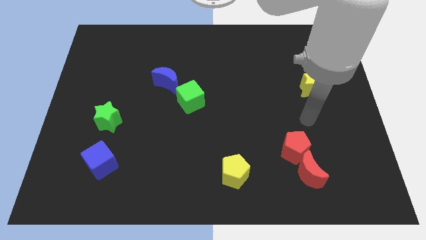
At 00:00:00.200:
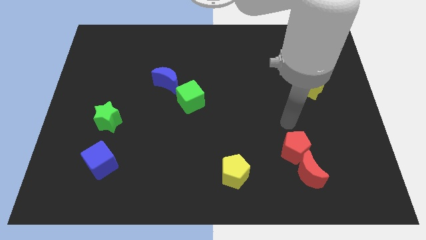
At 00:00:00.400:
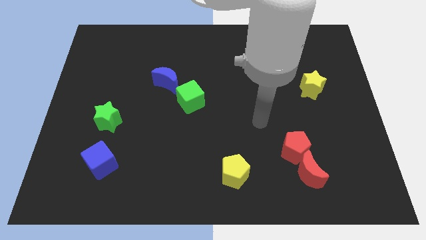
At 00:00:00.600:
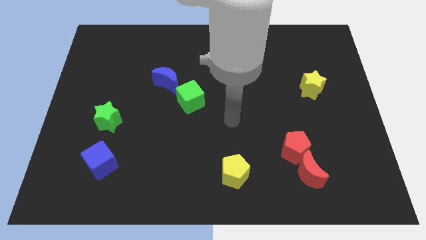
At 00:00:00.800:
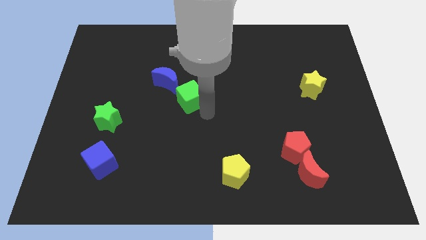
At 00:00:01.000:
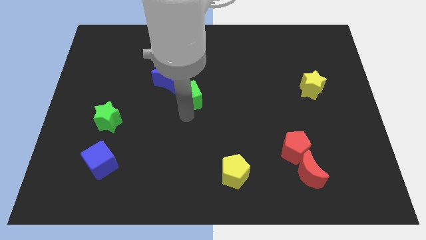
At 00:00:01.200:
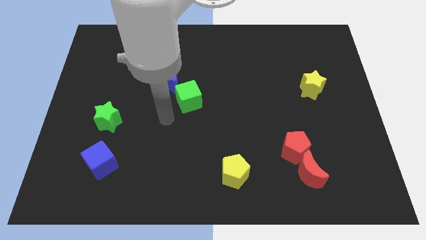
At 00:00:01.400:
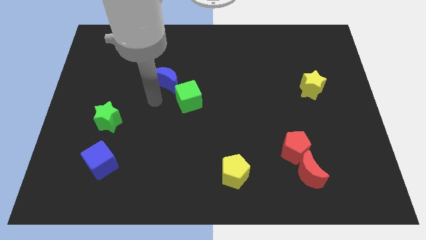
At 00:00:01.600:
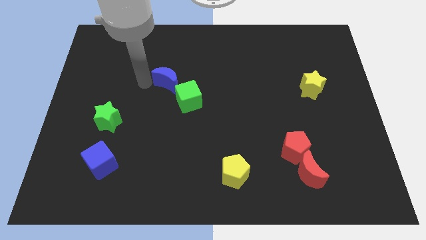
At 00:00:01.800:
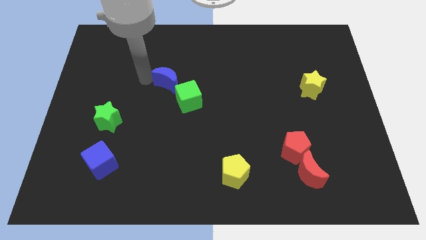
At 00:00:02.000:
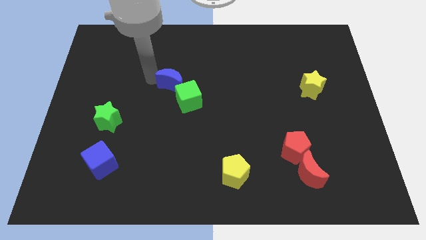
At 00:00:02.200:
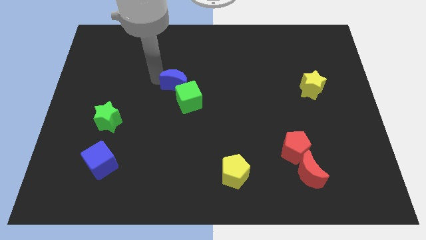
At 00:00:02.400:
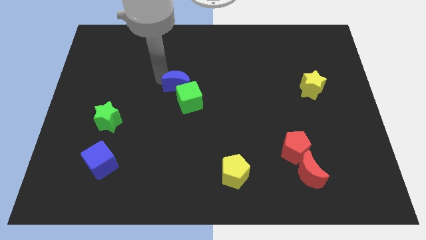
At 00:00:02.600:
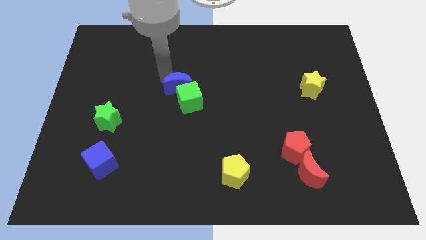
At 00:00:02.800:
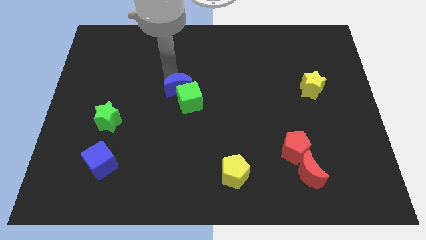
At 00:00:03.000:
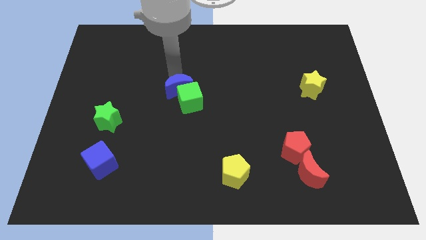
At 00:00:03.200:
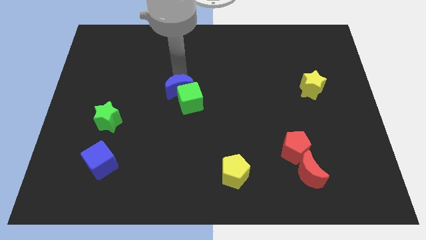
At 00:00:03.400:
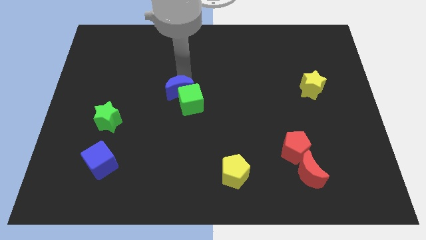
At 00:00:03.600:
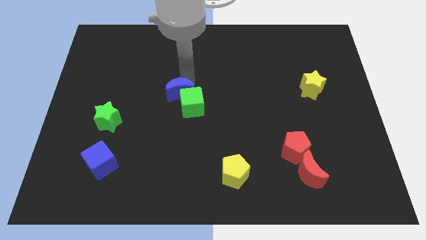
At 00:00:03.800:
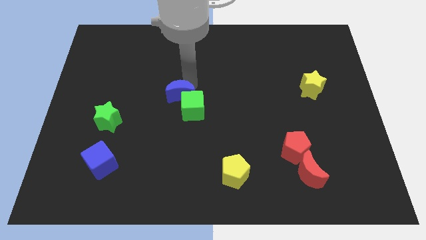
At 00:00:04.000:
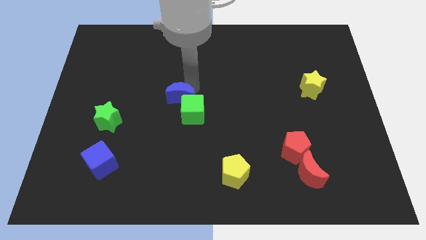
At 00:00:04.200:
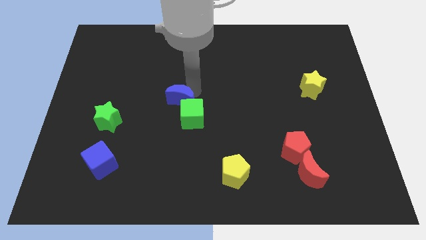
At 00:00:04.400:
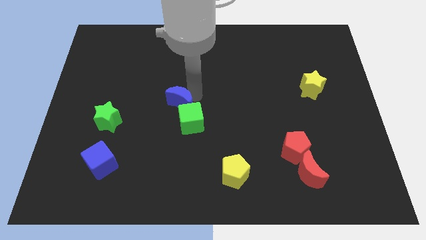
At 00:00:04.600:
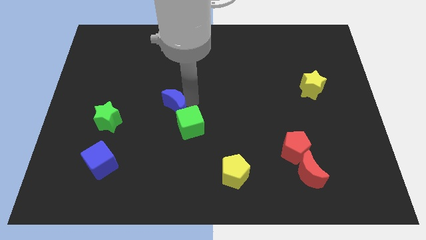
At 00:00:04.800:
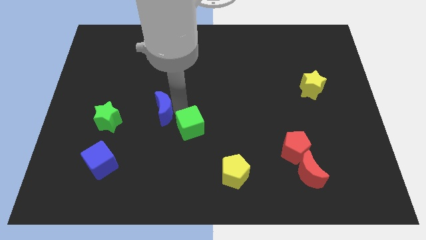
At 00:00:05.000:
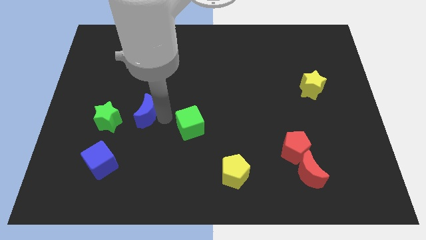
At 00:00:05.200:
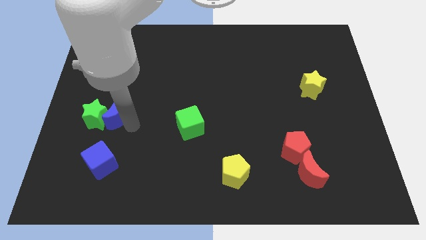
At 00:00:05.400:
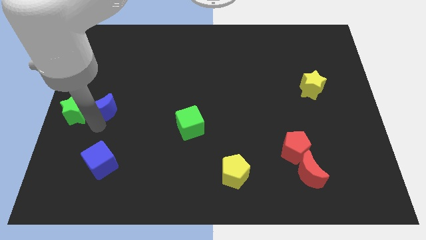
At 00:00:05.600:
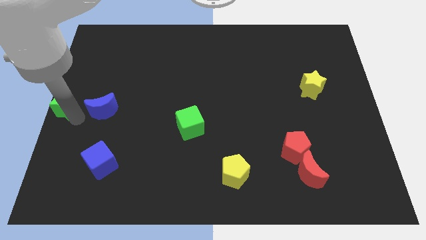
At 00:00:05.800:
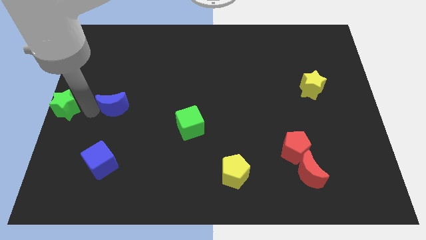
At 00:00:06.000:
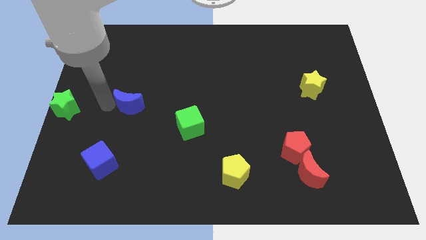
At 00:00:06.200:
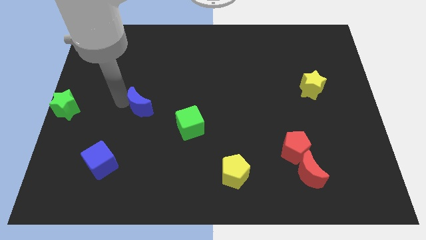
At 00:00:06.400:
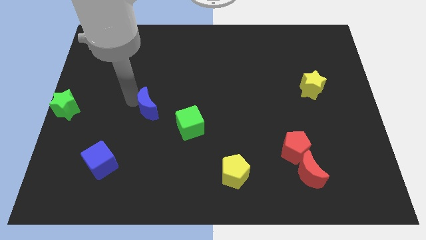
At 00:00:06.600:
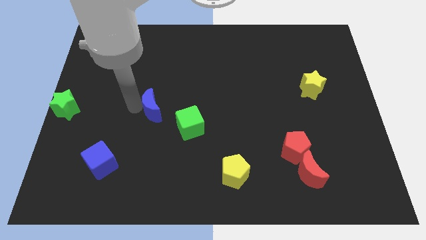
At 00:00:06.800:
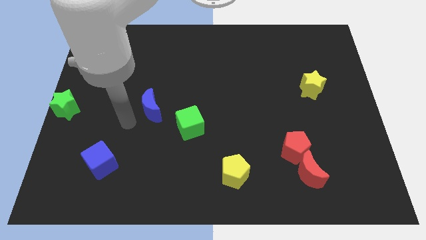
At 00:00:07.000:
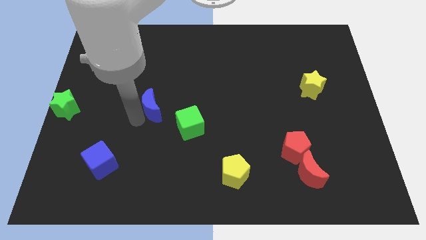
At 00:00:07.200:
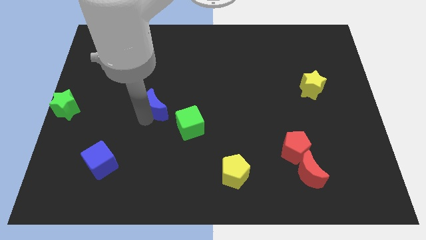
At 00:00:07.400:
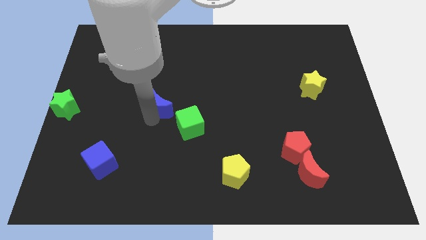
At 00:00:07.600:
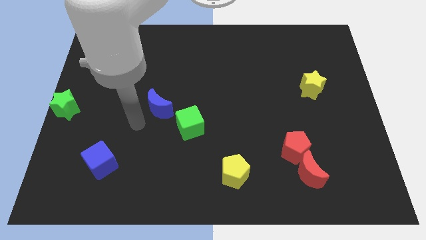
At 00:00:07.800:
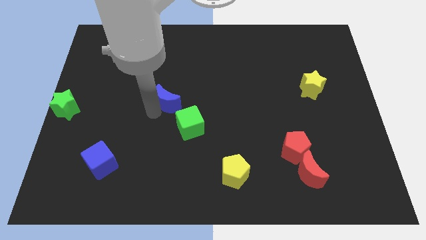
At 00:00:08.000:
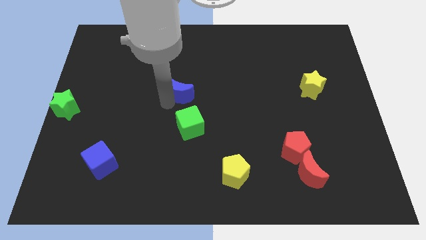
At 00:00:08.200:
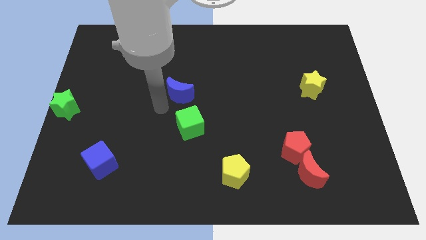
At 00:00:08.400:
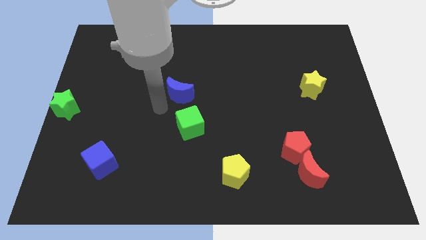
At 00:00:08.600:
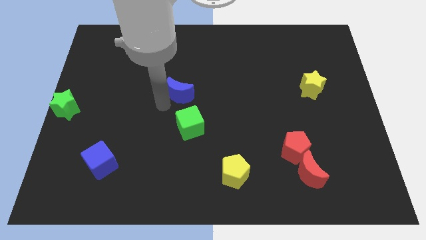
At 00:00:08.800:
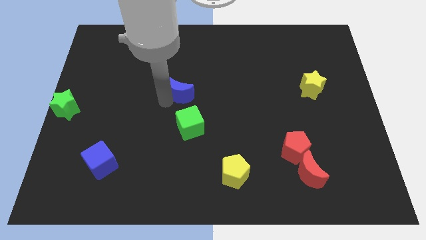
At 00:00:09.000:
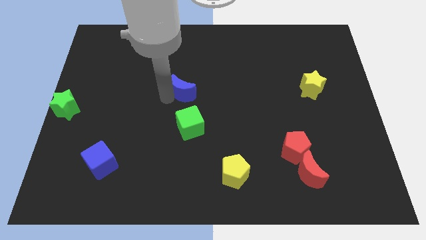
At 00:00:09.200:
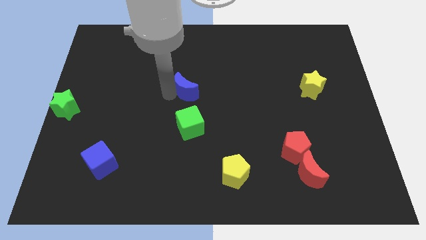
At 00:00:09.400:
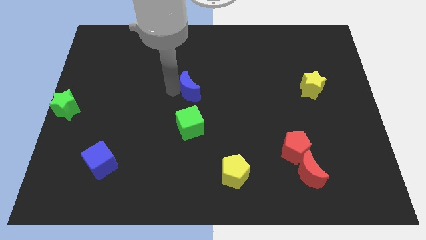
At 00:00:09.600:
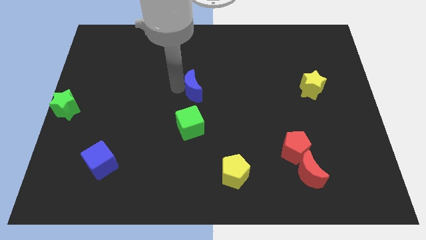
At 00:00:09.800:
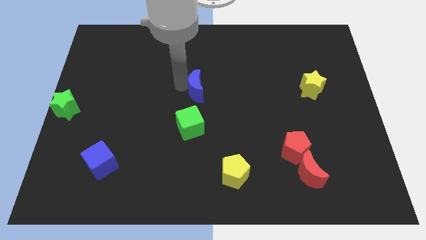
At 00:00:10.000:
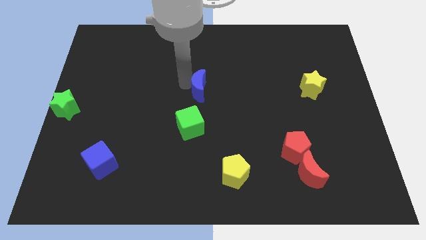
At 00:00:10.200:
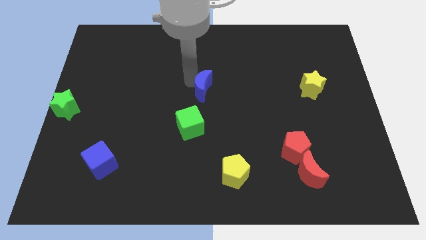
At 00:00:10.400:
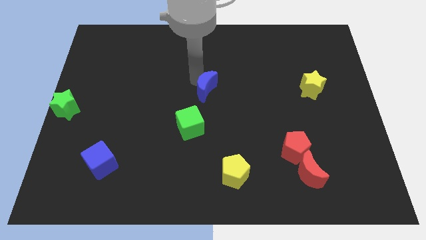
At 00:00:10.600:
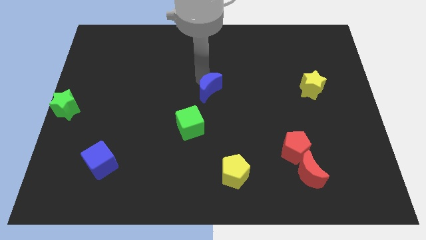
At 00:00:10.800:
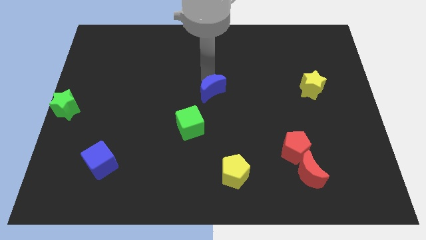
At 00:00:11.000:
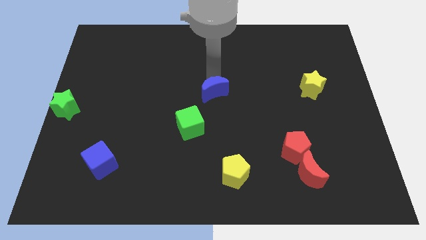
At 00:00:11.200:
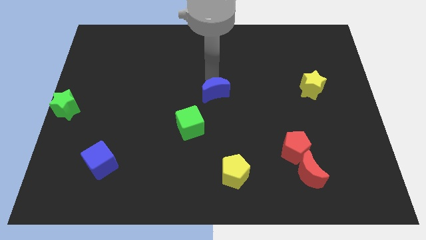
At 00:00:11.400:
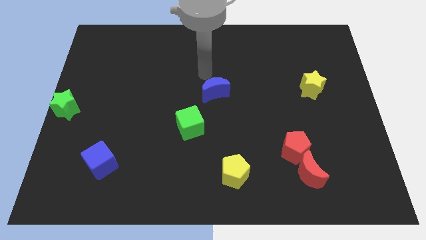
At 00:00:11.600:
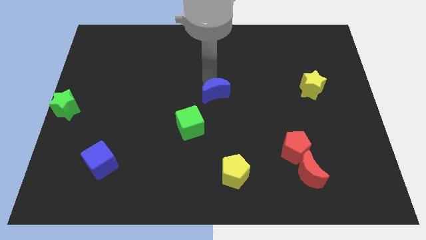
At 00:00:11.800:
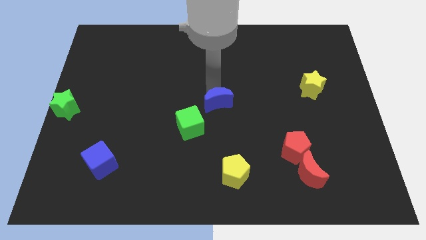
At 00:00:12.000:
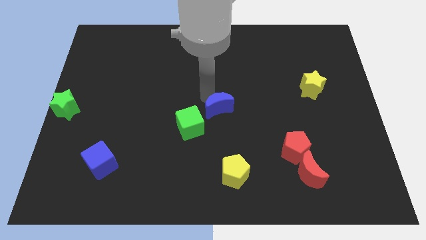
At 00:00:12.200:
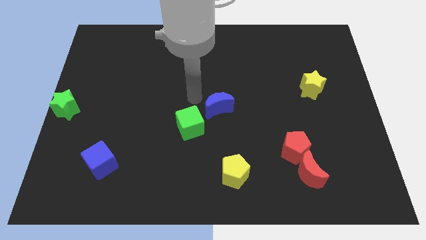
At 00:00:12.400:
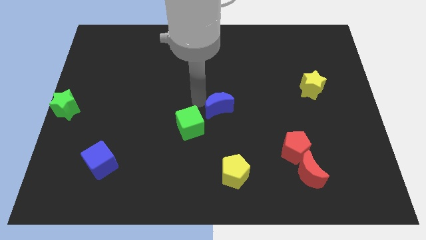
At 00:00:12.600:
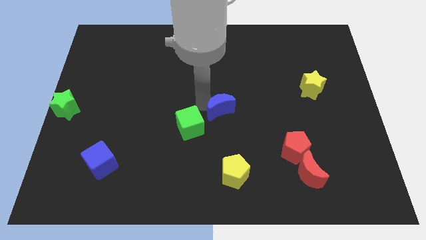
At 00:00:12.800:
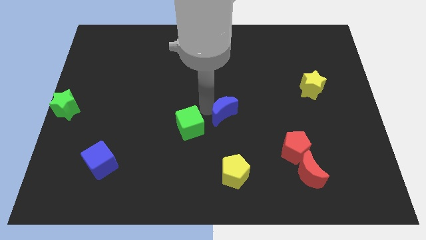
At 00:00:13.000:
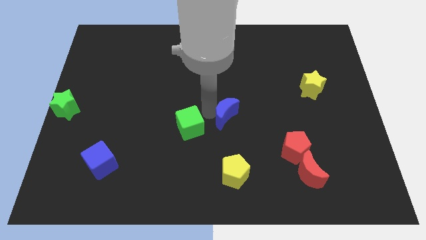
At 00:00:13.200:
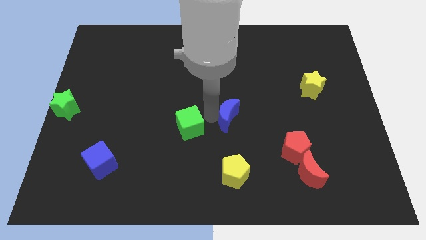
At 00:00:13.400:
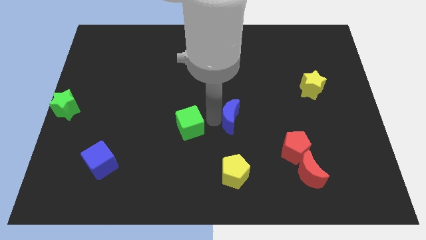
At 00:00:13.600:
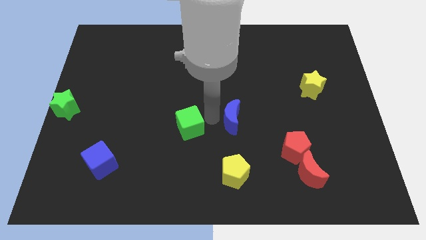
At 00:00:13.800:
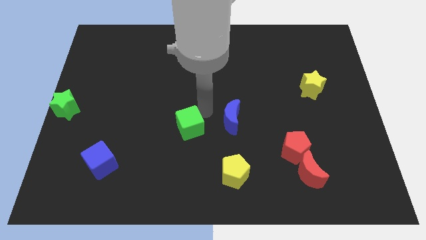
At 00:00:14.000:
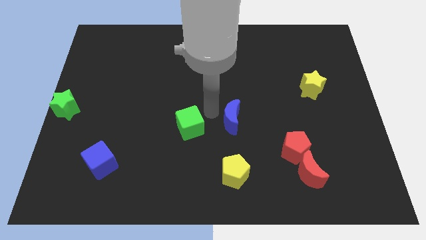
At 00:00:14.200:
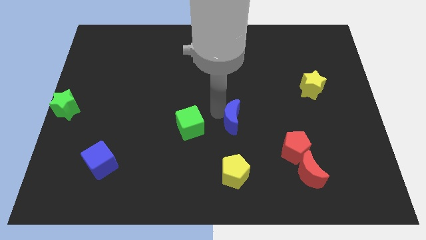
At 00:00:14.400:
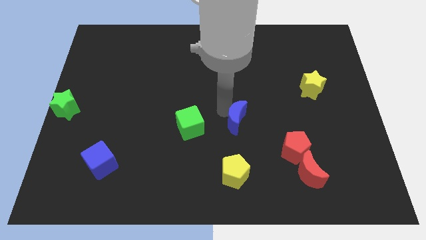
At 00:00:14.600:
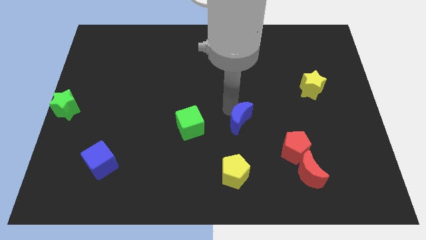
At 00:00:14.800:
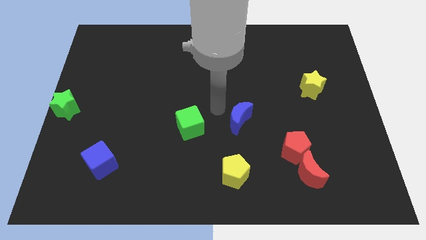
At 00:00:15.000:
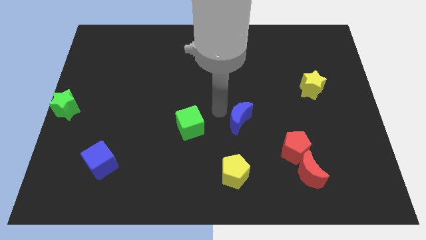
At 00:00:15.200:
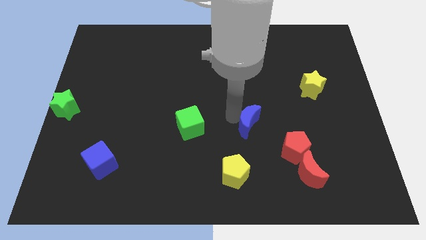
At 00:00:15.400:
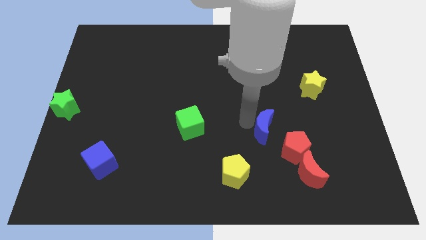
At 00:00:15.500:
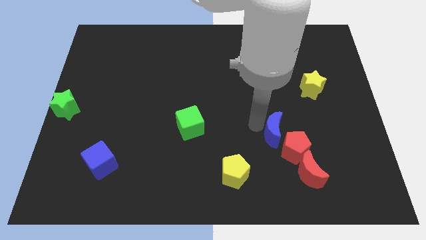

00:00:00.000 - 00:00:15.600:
slide the blue moon close to the red pentagon
